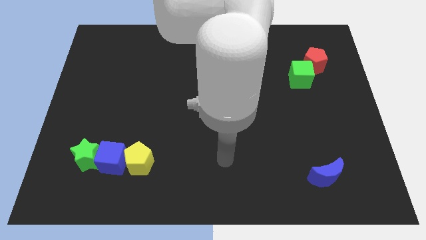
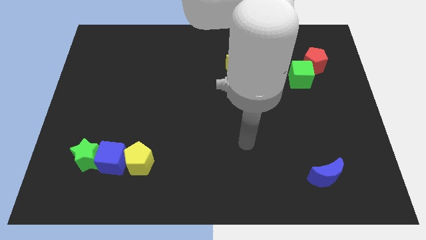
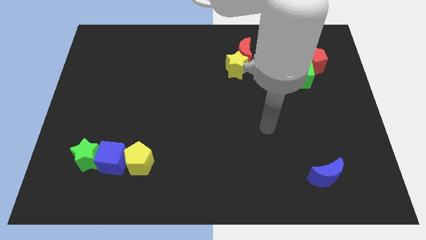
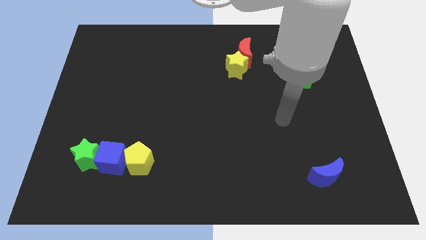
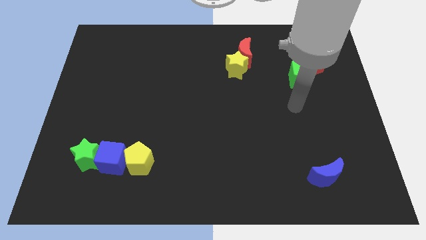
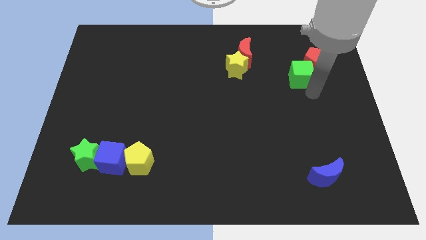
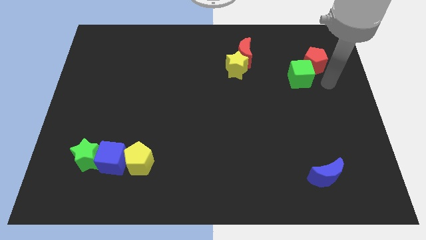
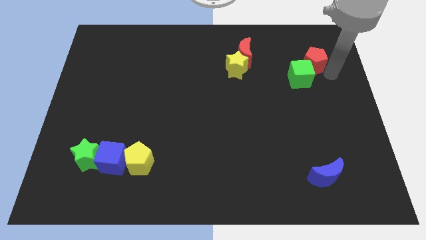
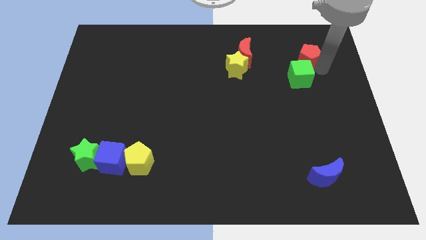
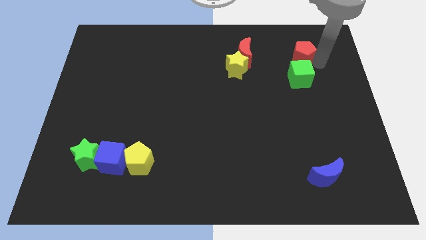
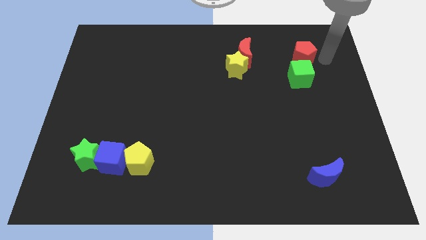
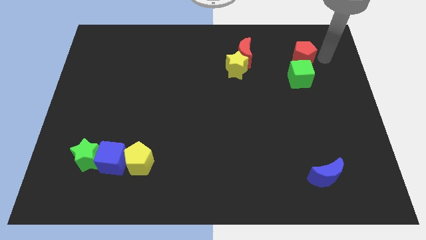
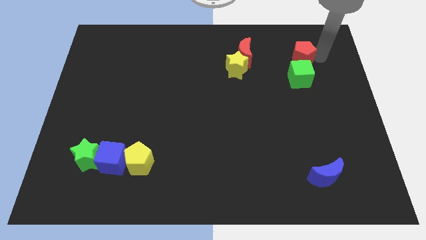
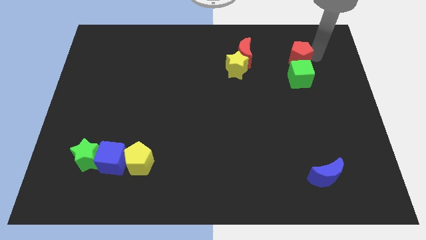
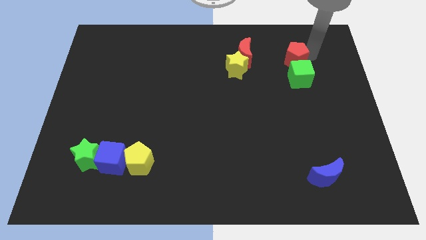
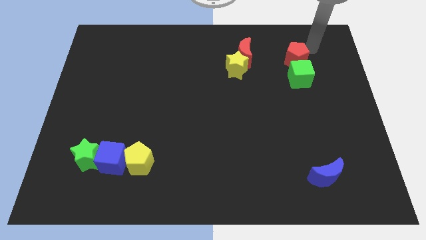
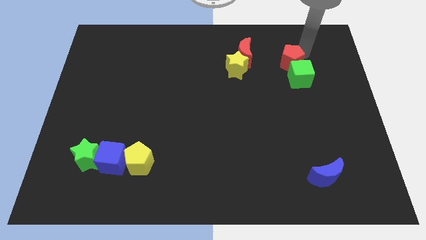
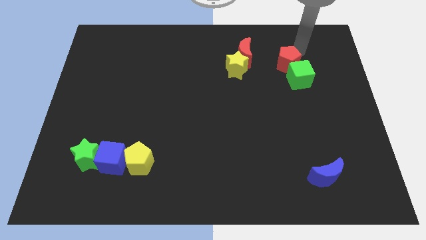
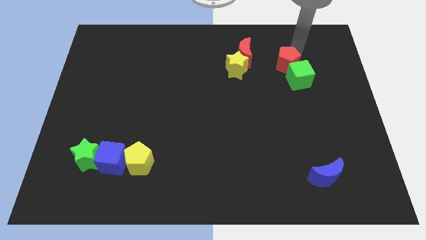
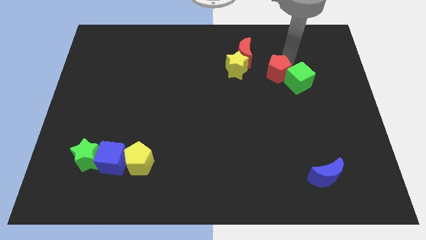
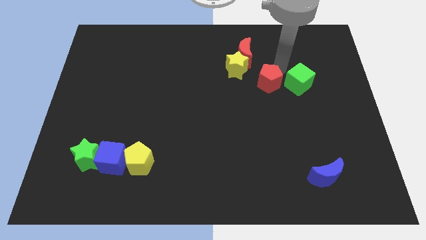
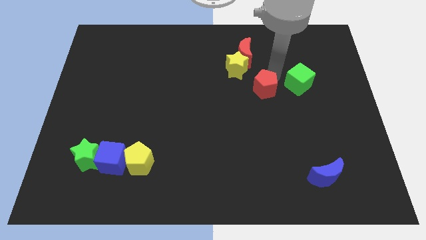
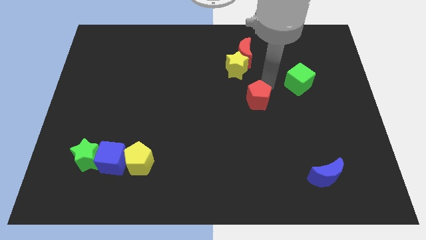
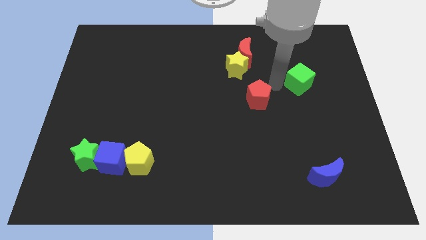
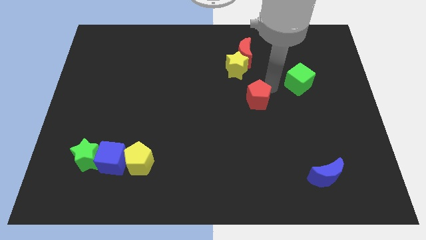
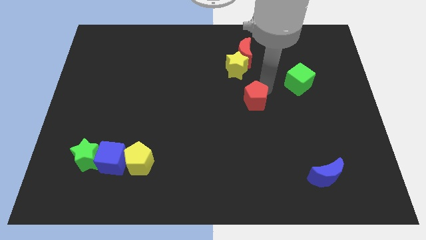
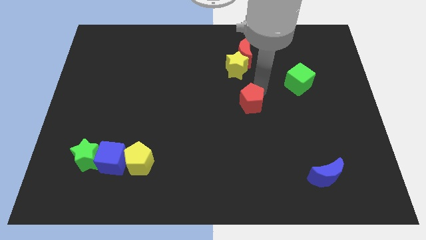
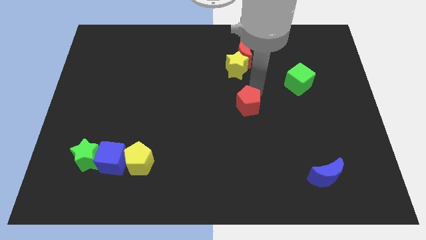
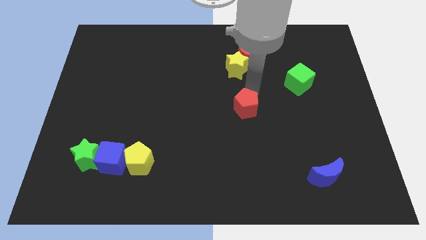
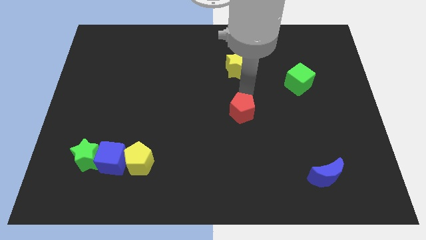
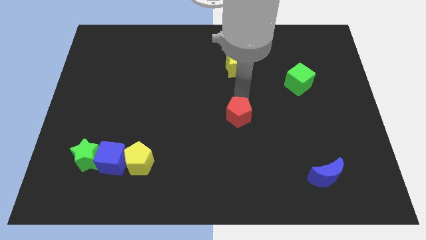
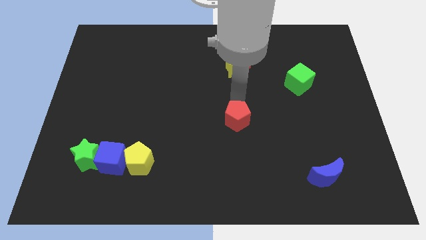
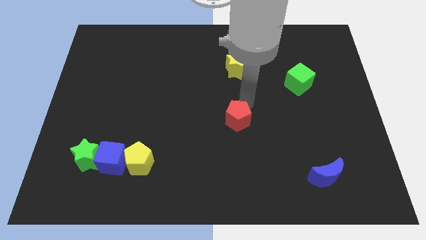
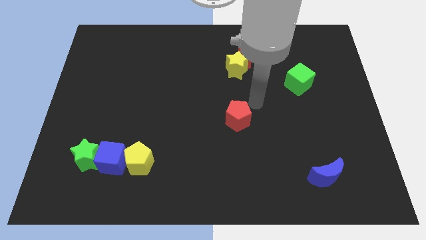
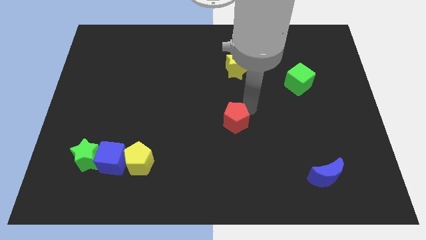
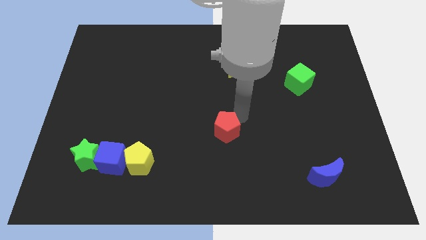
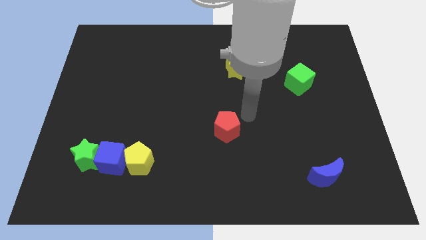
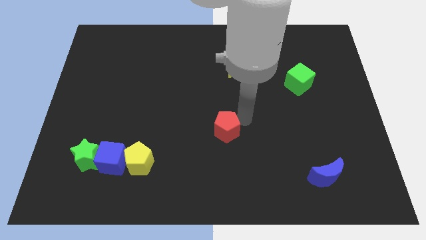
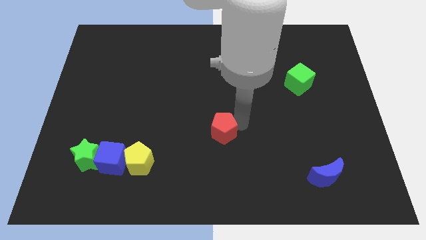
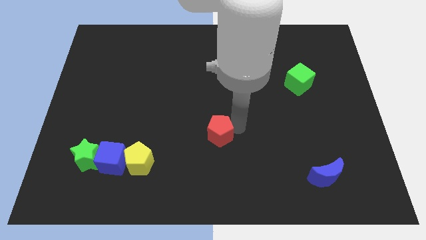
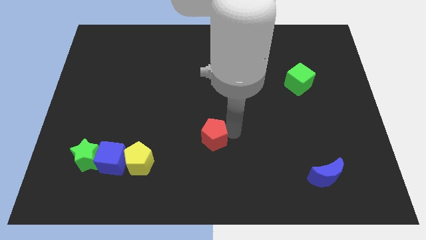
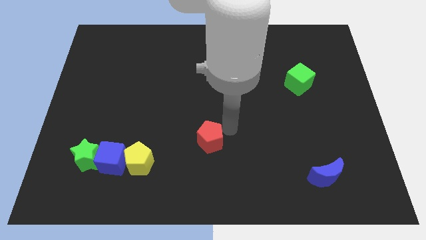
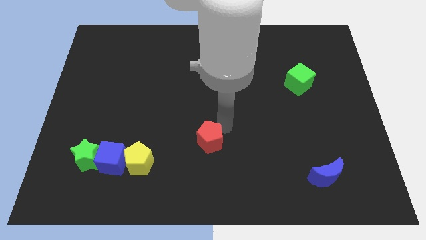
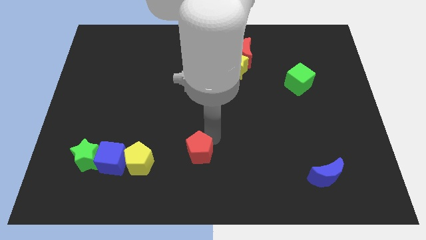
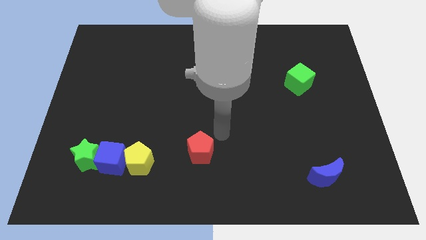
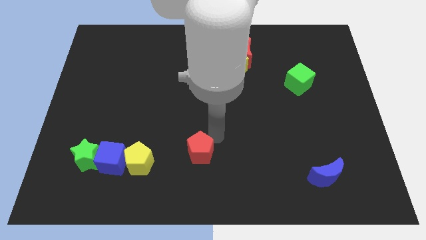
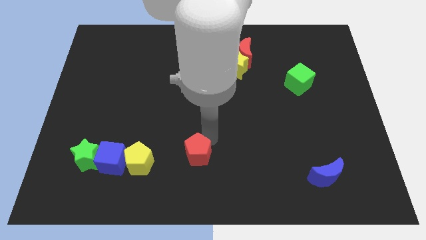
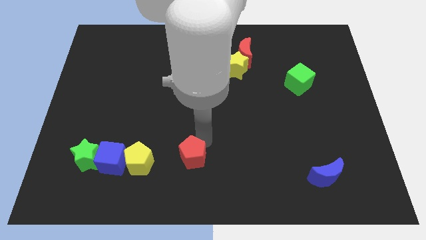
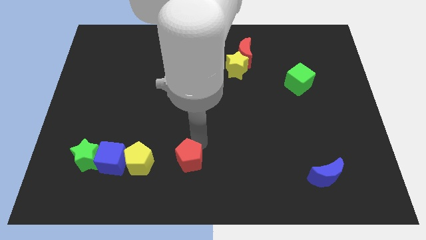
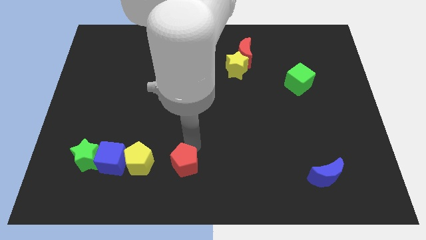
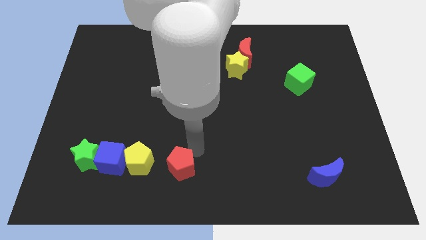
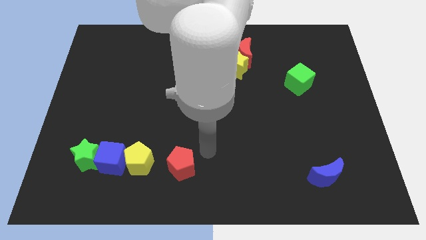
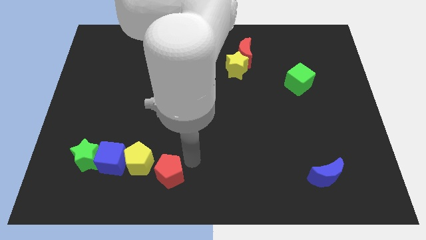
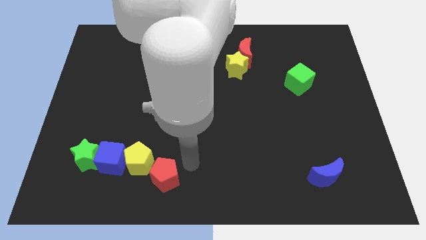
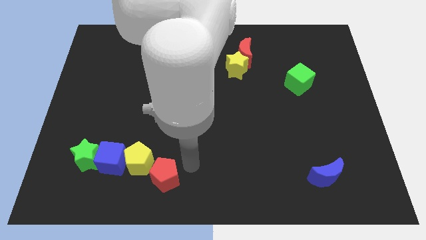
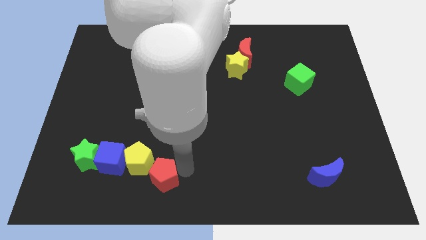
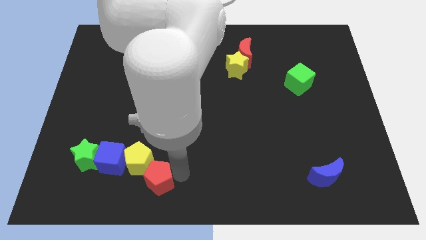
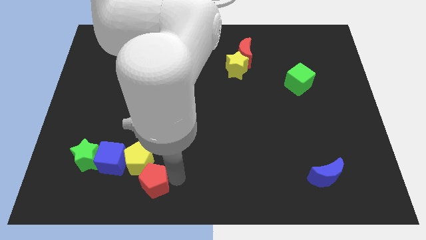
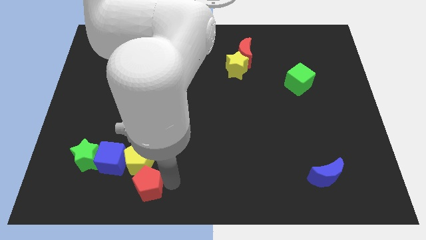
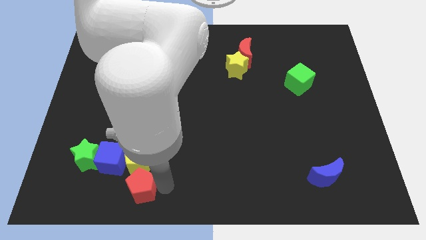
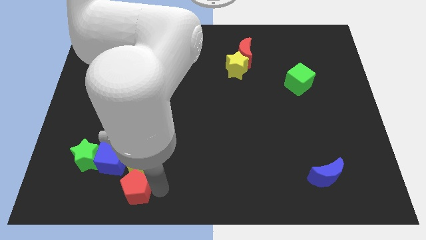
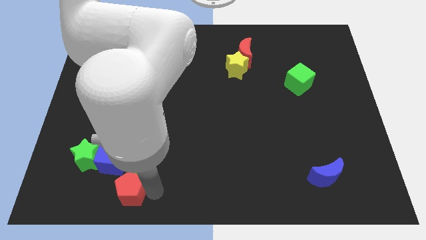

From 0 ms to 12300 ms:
put the red pentagon diagonally down and to the right of the green star
